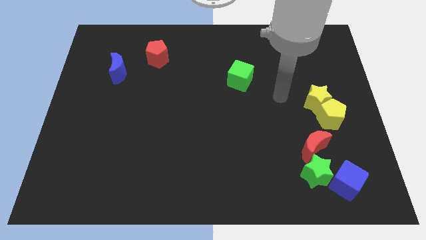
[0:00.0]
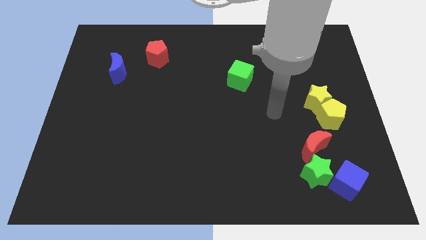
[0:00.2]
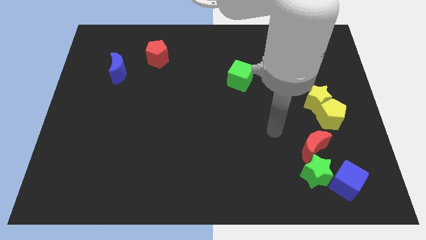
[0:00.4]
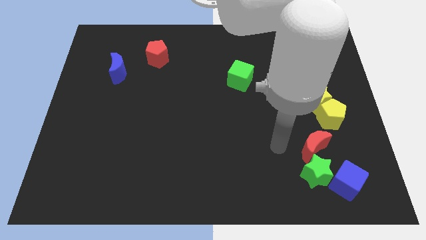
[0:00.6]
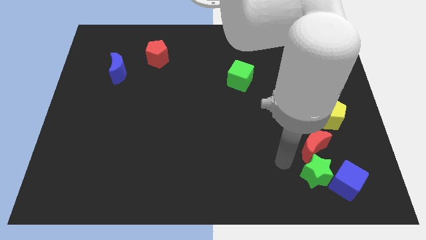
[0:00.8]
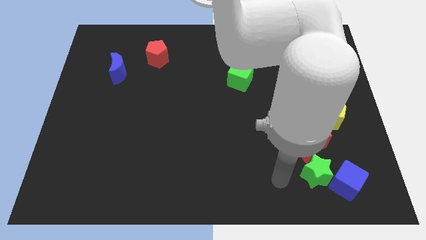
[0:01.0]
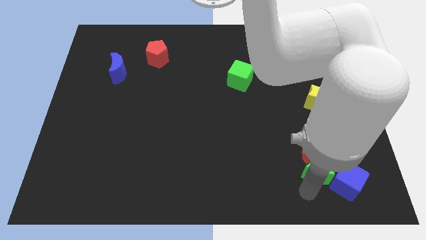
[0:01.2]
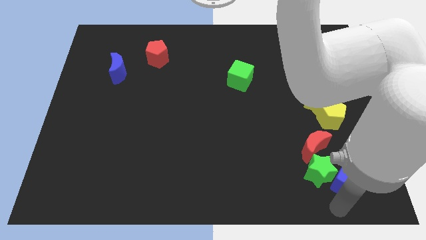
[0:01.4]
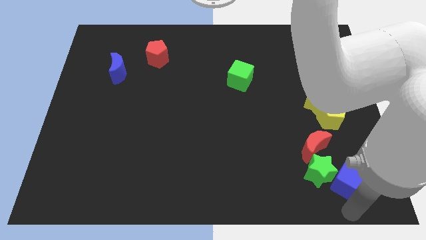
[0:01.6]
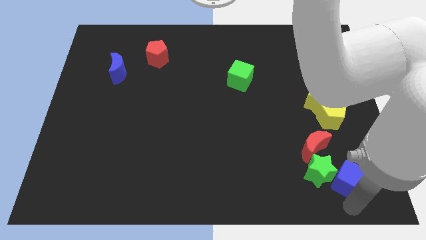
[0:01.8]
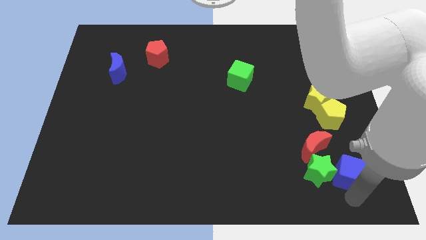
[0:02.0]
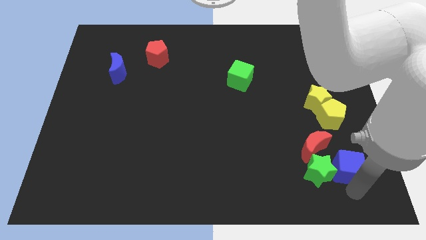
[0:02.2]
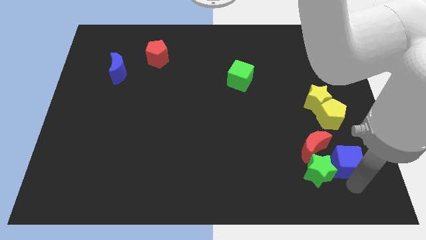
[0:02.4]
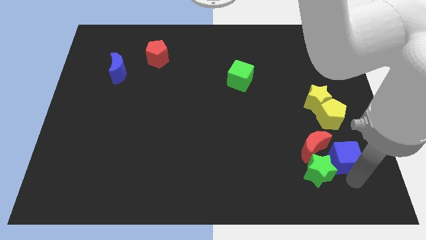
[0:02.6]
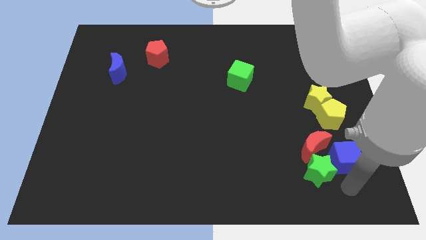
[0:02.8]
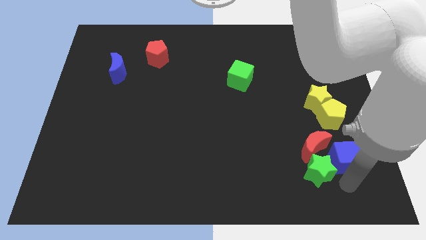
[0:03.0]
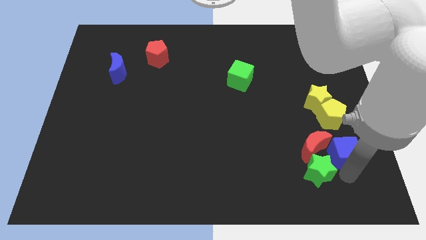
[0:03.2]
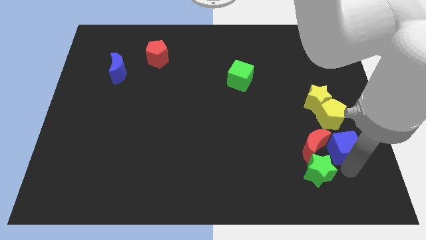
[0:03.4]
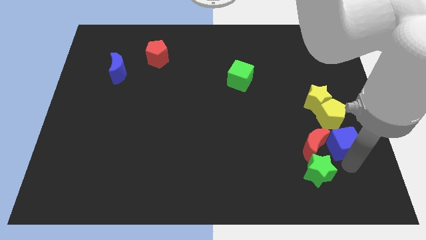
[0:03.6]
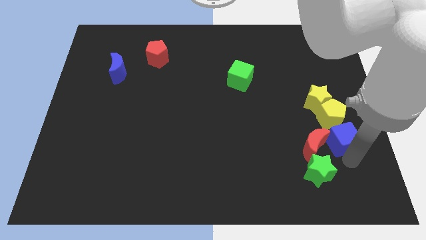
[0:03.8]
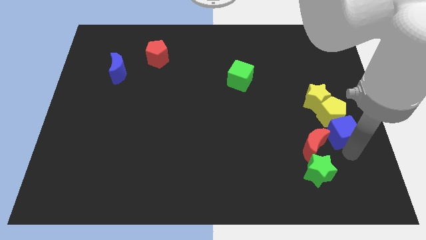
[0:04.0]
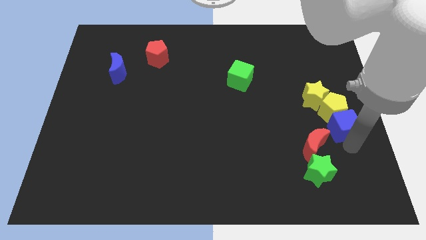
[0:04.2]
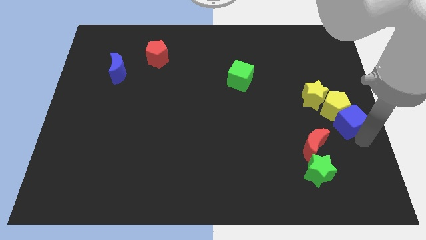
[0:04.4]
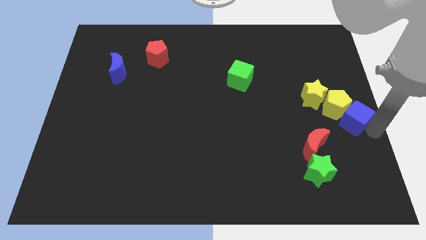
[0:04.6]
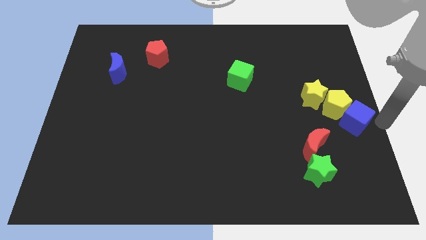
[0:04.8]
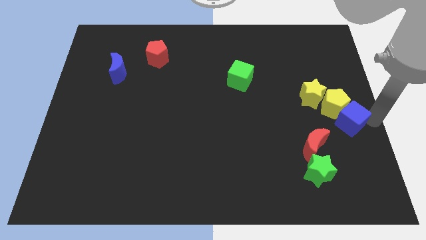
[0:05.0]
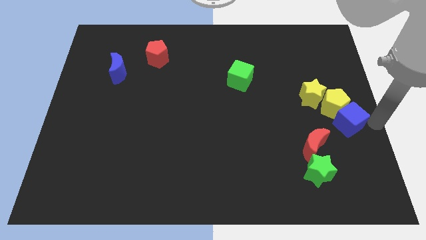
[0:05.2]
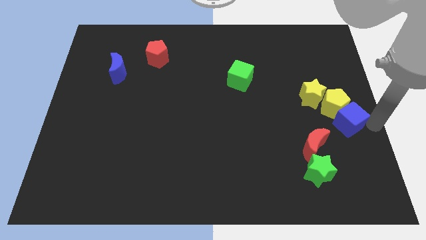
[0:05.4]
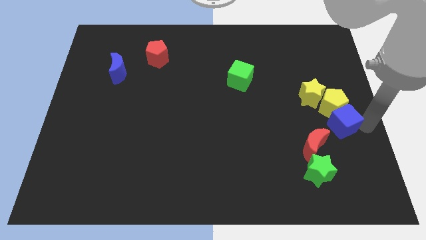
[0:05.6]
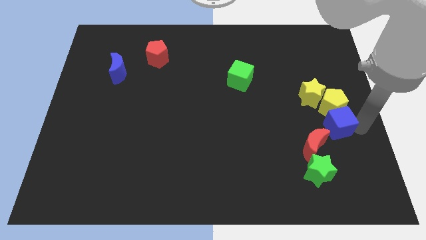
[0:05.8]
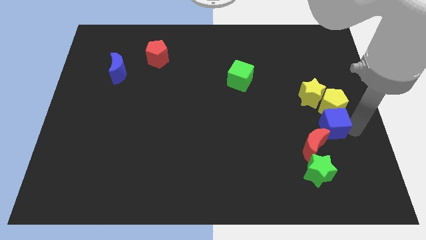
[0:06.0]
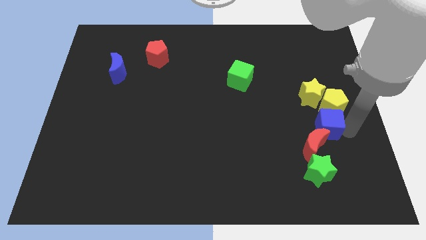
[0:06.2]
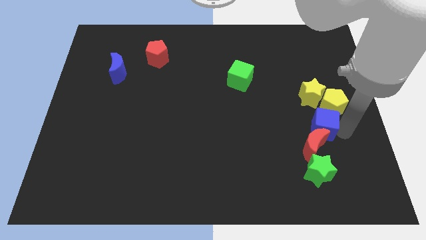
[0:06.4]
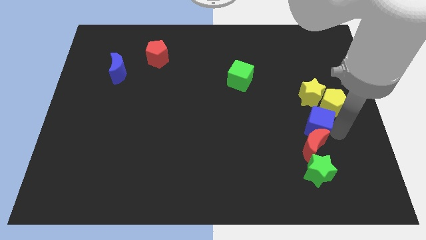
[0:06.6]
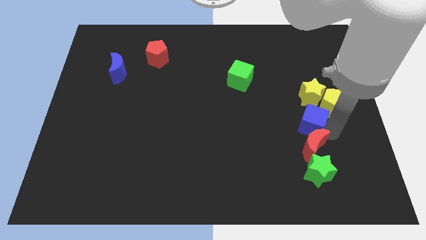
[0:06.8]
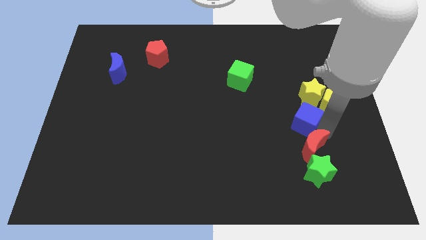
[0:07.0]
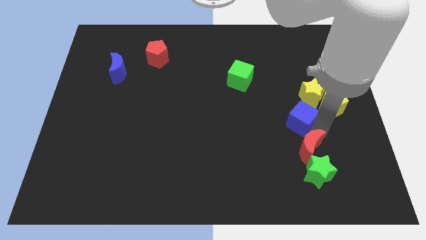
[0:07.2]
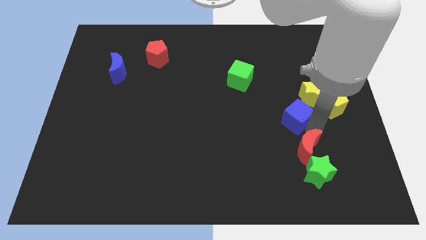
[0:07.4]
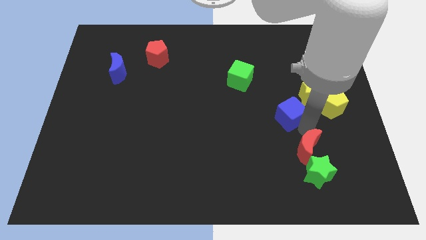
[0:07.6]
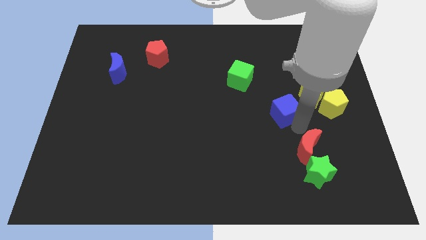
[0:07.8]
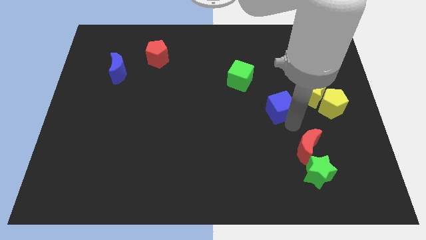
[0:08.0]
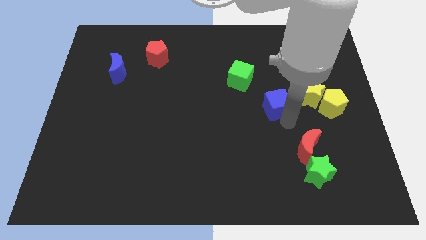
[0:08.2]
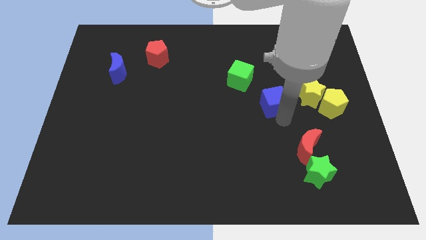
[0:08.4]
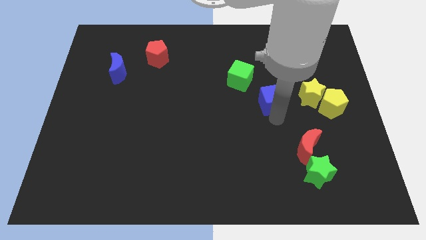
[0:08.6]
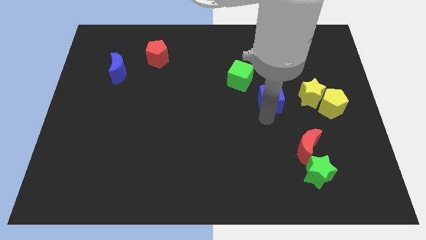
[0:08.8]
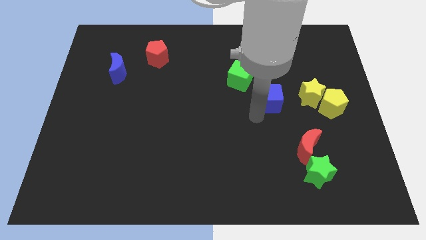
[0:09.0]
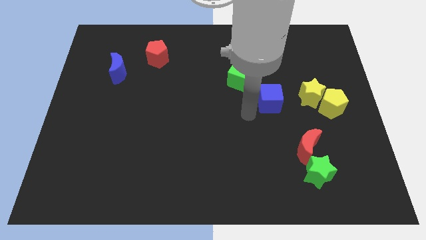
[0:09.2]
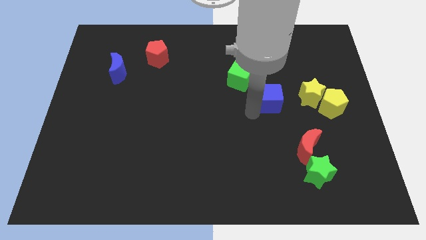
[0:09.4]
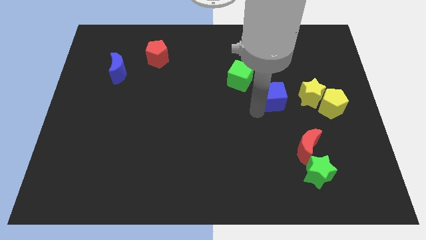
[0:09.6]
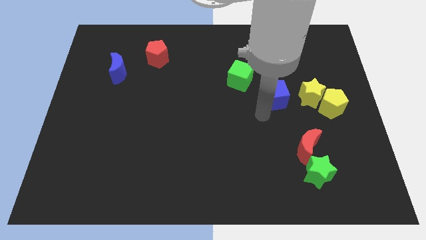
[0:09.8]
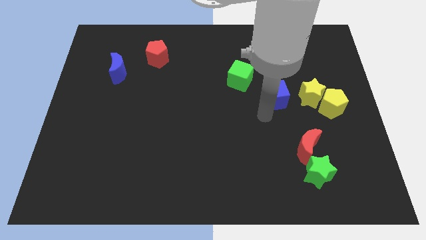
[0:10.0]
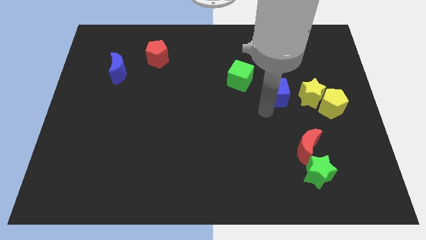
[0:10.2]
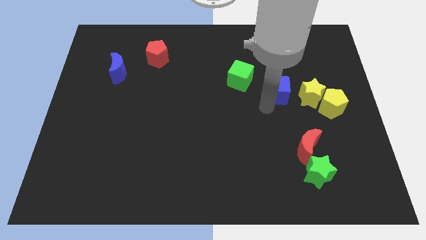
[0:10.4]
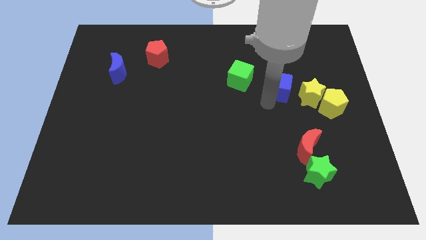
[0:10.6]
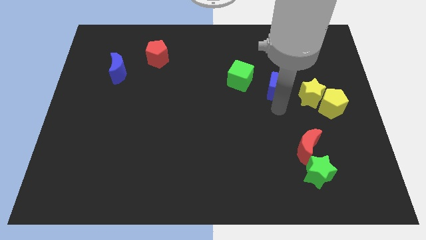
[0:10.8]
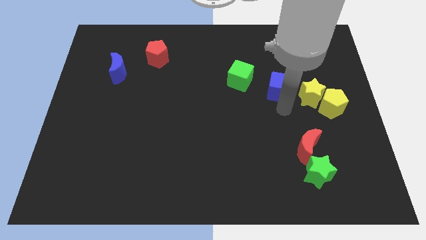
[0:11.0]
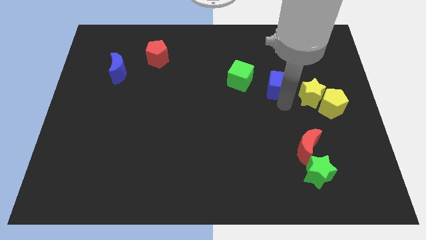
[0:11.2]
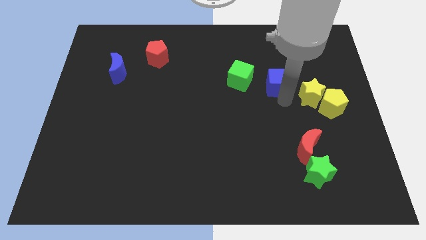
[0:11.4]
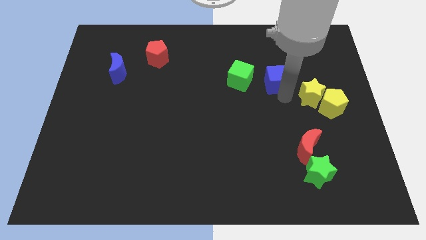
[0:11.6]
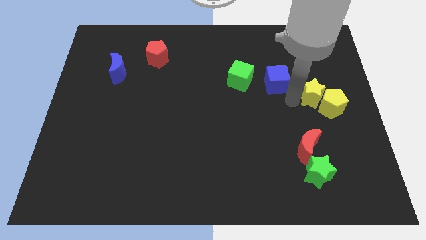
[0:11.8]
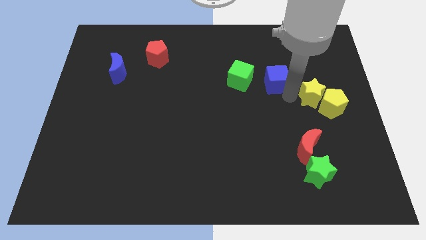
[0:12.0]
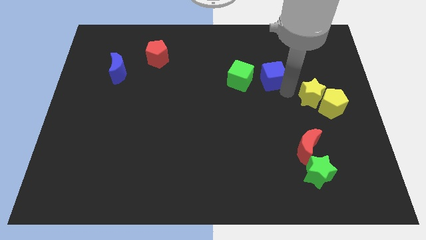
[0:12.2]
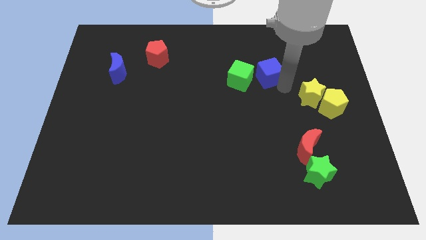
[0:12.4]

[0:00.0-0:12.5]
put the blue cube to the top right side of the green cube

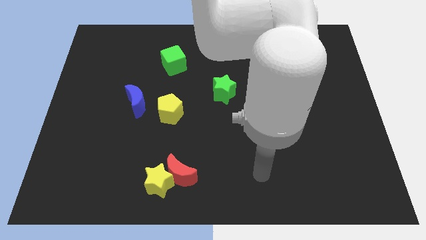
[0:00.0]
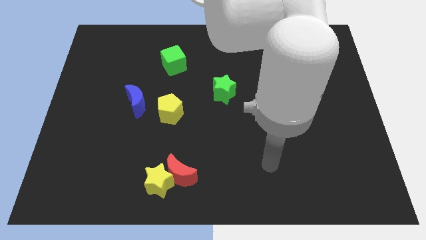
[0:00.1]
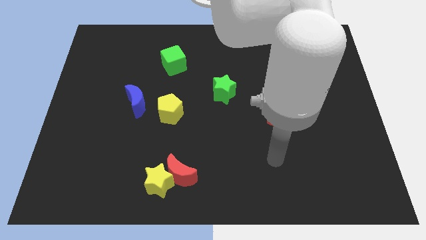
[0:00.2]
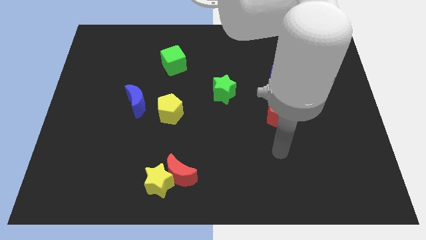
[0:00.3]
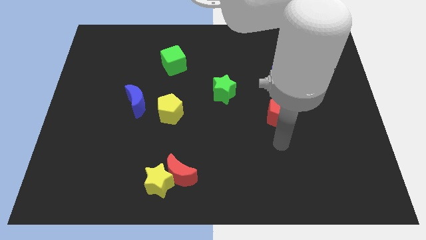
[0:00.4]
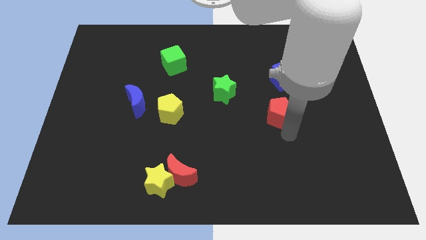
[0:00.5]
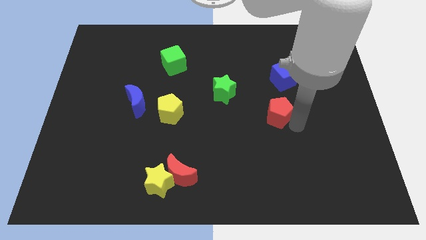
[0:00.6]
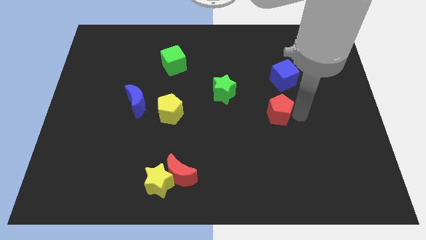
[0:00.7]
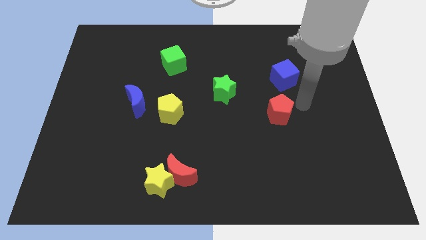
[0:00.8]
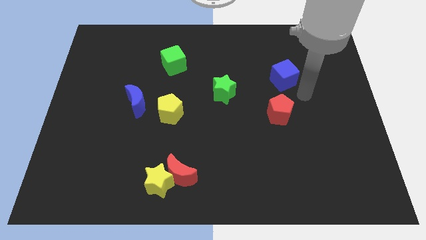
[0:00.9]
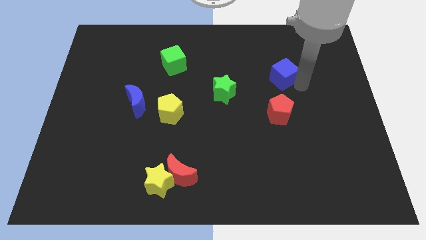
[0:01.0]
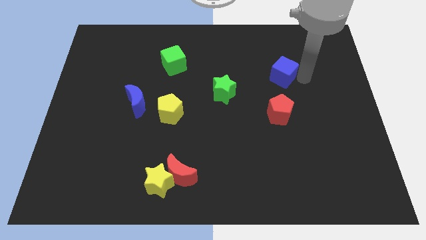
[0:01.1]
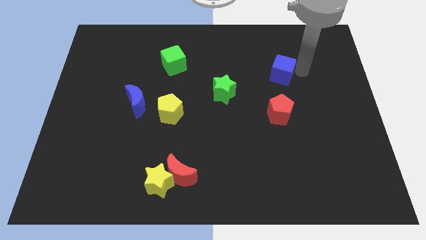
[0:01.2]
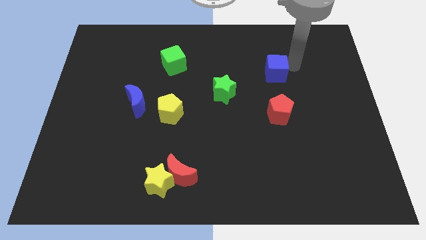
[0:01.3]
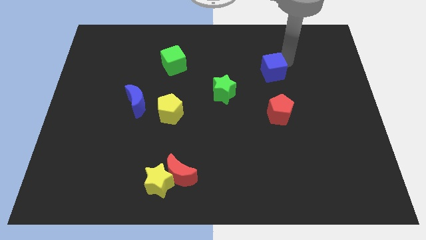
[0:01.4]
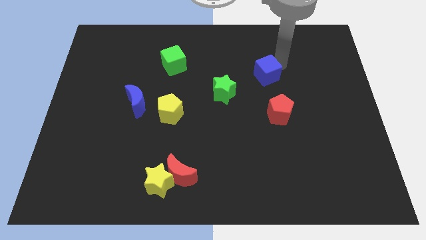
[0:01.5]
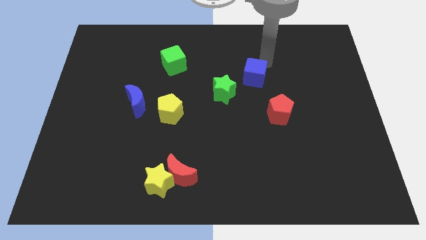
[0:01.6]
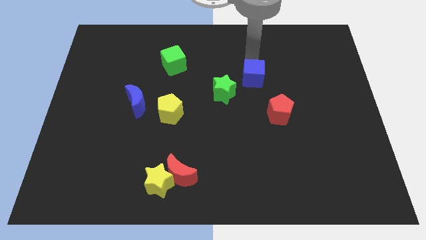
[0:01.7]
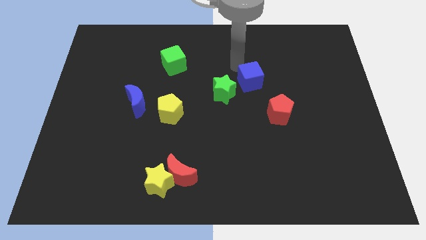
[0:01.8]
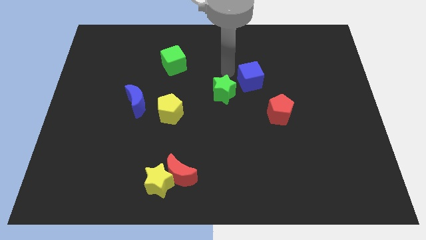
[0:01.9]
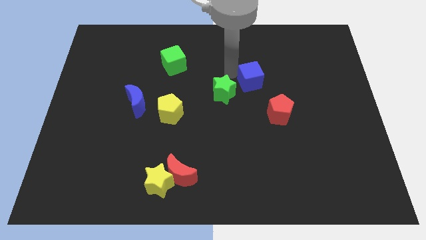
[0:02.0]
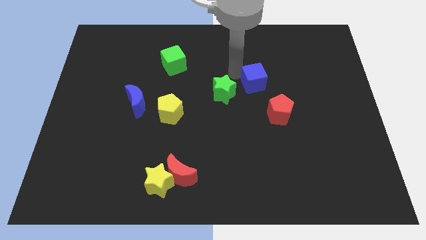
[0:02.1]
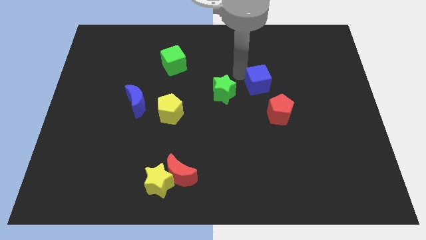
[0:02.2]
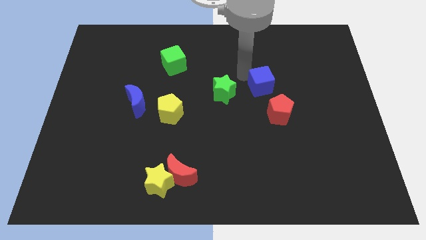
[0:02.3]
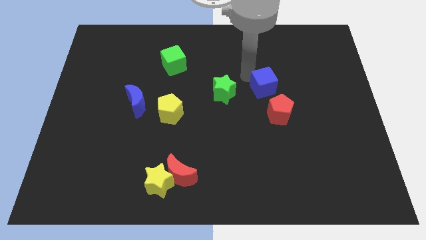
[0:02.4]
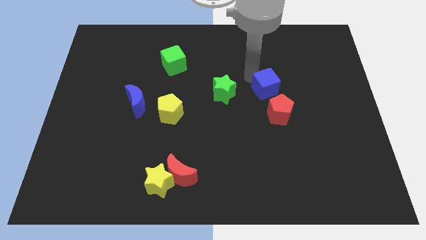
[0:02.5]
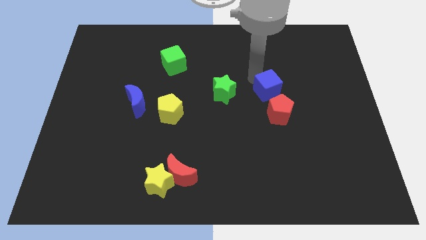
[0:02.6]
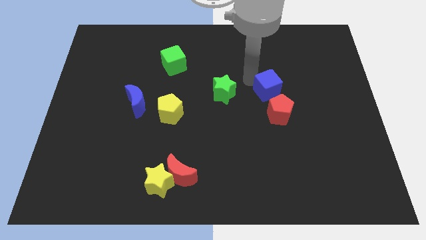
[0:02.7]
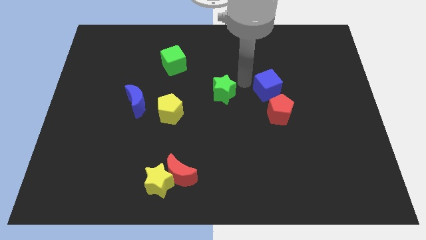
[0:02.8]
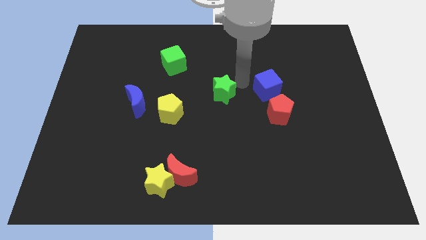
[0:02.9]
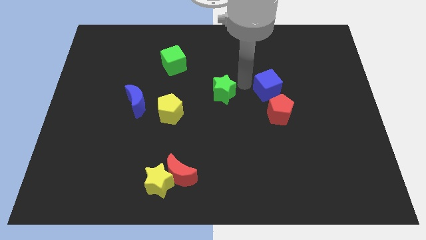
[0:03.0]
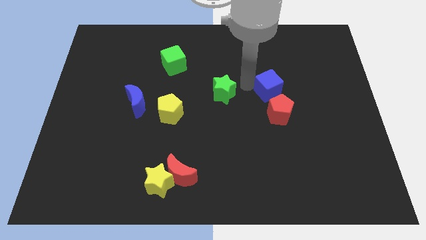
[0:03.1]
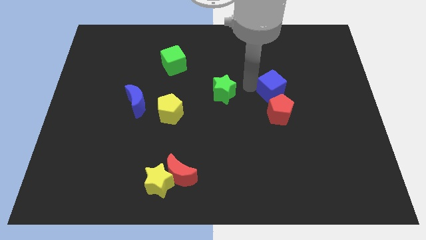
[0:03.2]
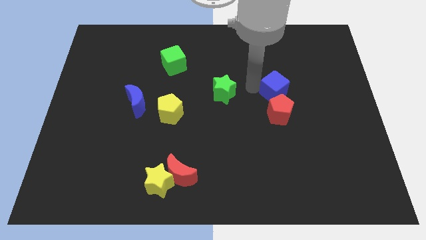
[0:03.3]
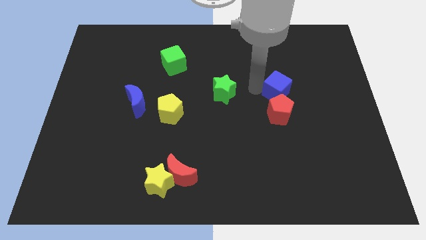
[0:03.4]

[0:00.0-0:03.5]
move the blue cube diagonally up and to the right of the red pentagon
